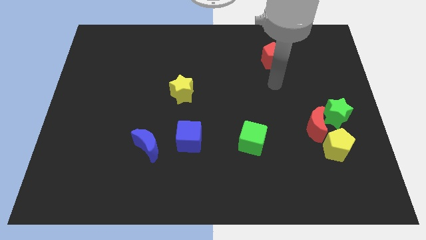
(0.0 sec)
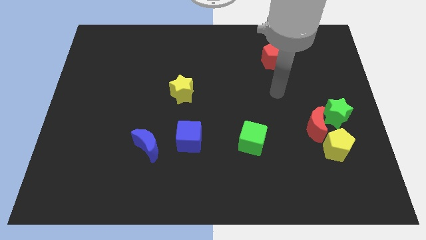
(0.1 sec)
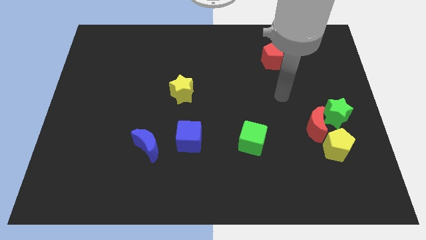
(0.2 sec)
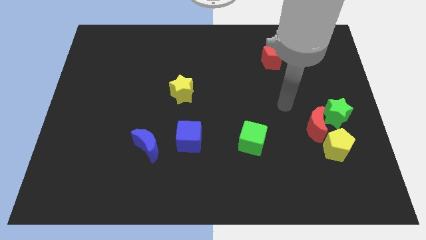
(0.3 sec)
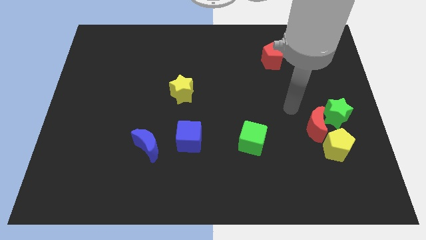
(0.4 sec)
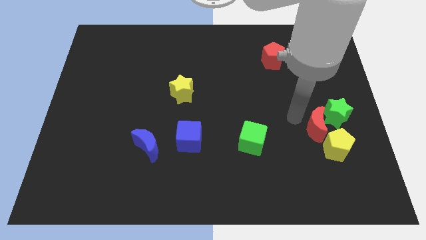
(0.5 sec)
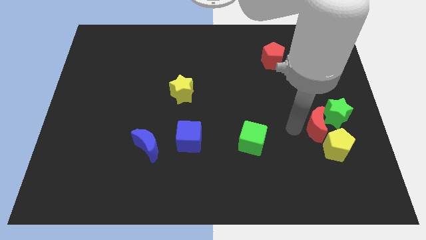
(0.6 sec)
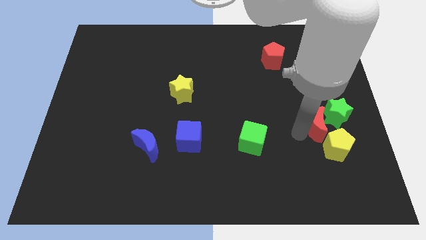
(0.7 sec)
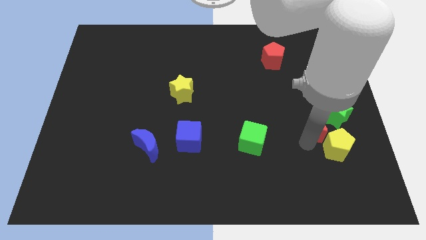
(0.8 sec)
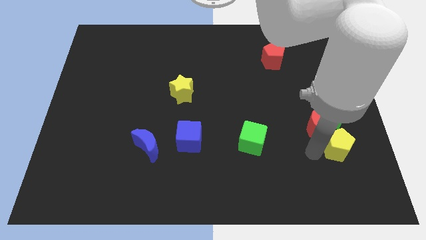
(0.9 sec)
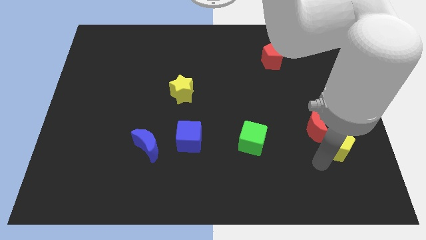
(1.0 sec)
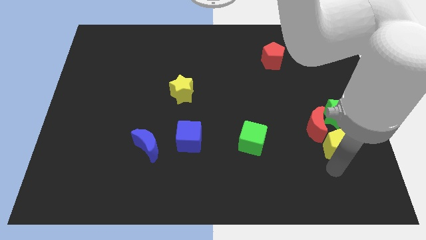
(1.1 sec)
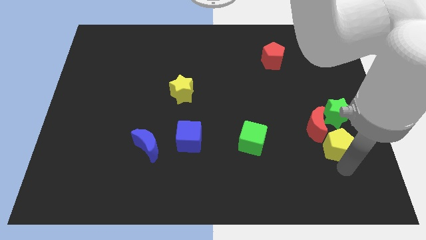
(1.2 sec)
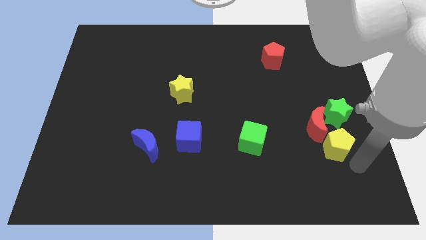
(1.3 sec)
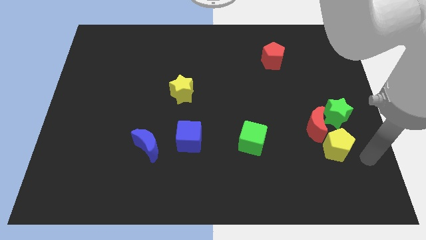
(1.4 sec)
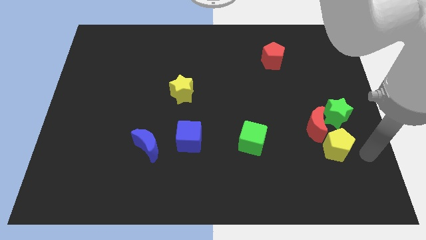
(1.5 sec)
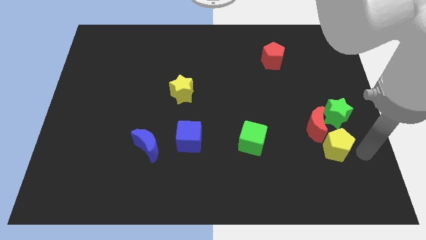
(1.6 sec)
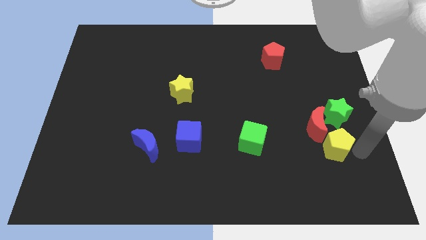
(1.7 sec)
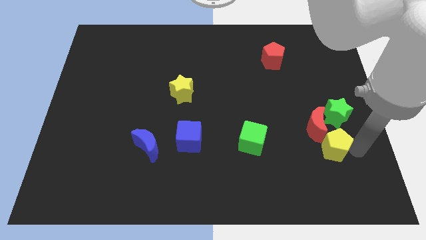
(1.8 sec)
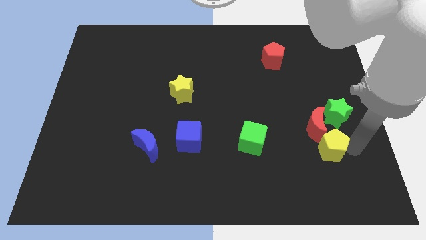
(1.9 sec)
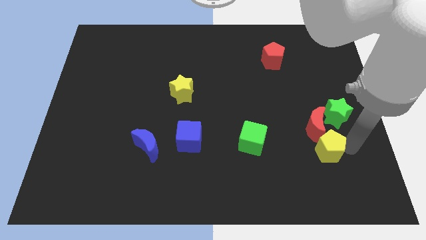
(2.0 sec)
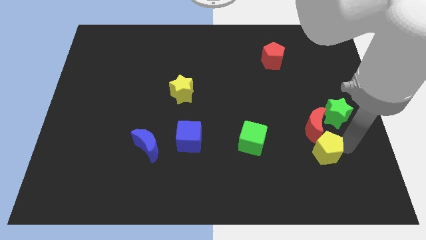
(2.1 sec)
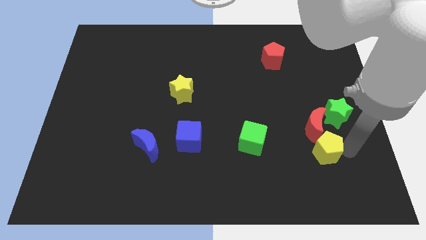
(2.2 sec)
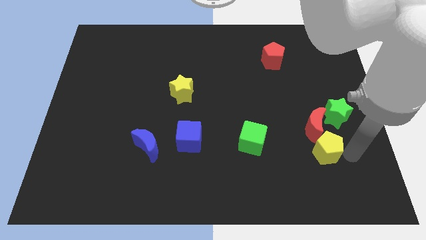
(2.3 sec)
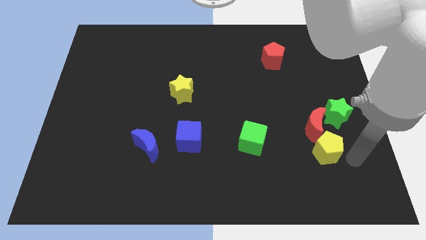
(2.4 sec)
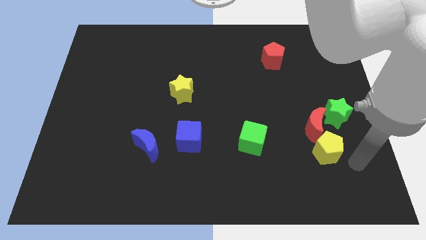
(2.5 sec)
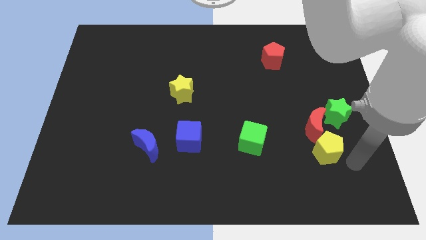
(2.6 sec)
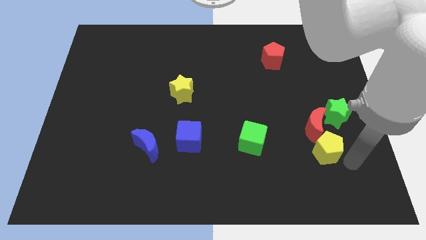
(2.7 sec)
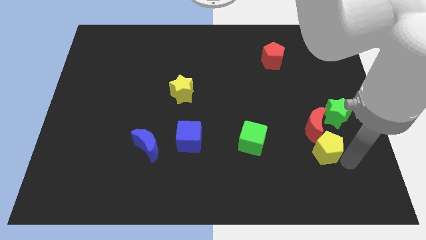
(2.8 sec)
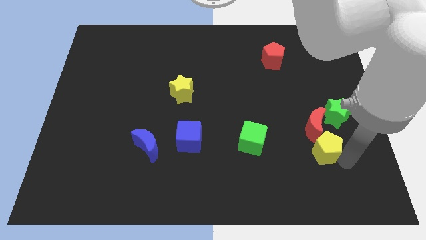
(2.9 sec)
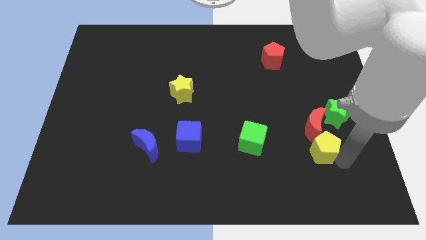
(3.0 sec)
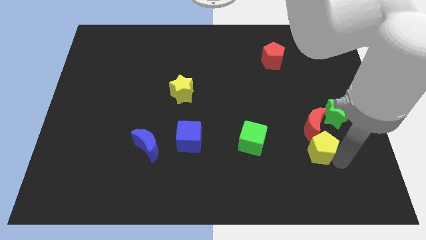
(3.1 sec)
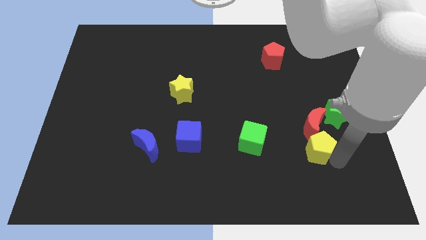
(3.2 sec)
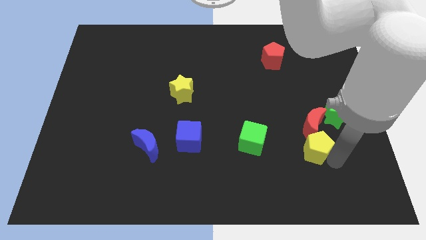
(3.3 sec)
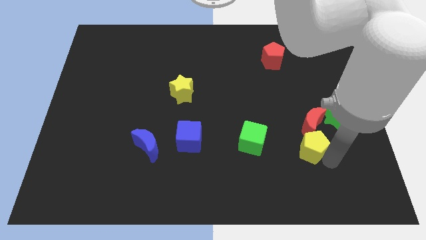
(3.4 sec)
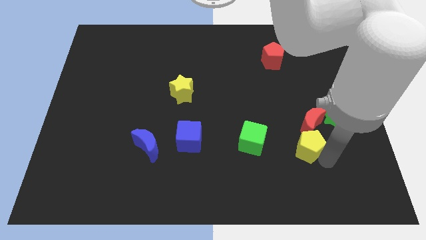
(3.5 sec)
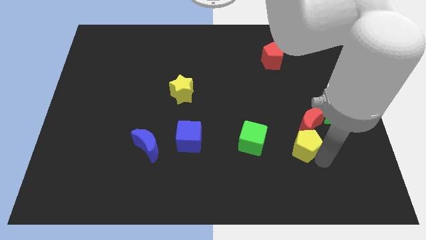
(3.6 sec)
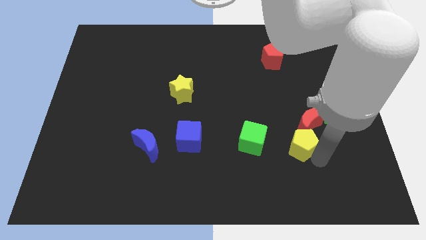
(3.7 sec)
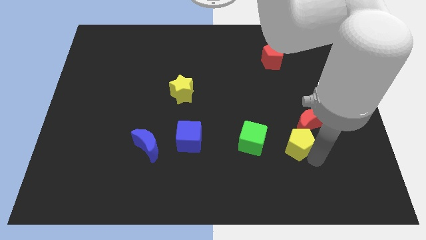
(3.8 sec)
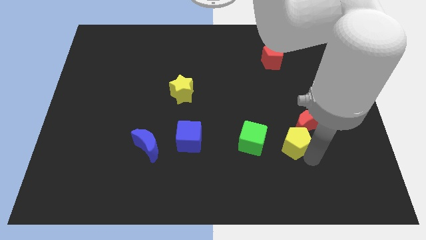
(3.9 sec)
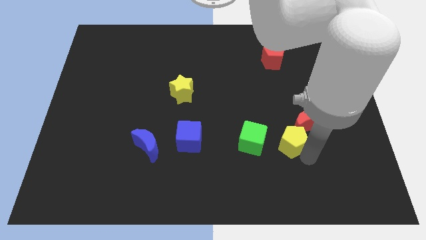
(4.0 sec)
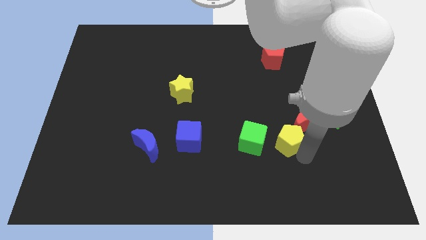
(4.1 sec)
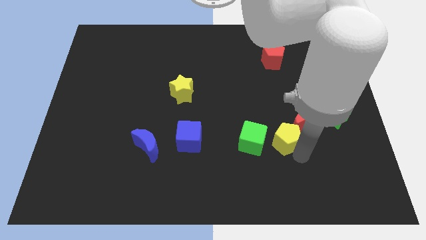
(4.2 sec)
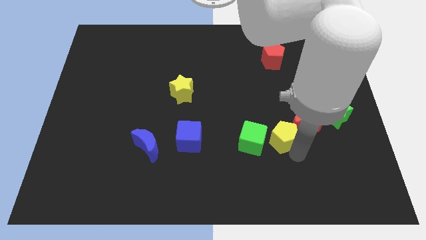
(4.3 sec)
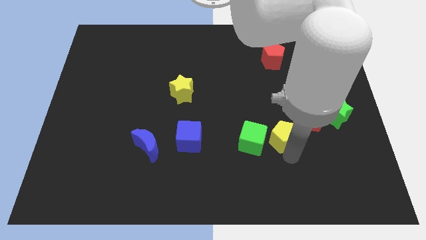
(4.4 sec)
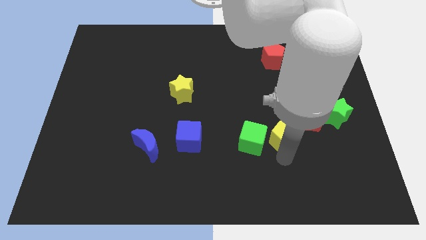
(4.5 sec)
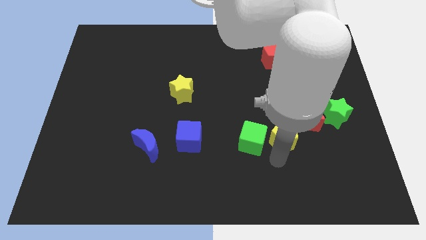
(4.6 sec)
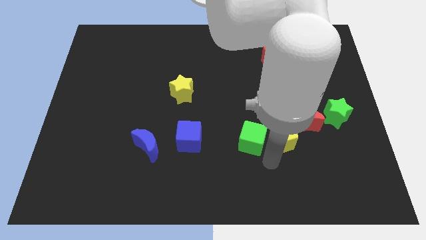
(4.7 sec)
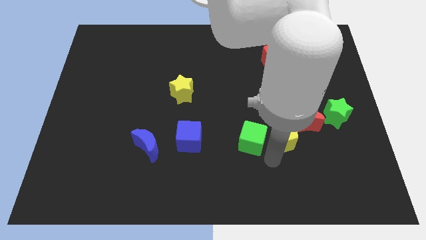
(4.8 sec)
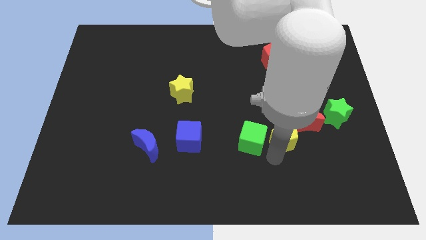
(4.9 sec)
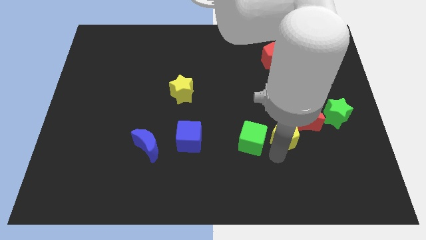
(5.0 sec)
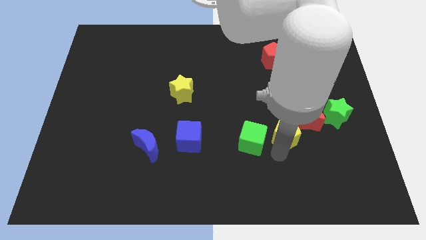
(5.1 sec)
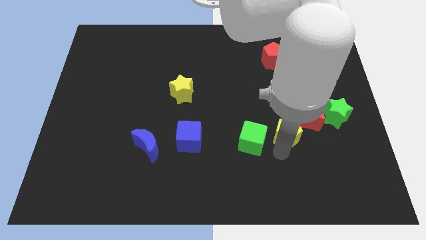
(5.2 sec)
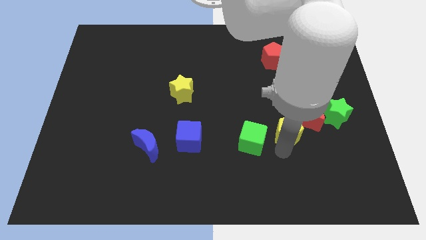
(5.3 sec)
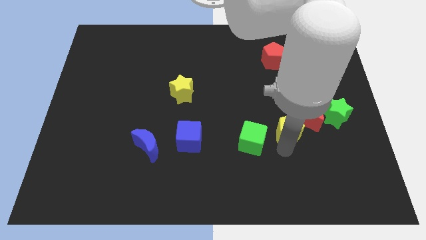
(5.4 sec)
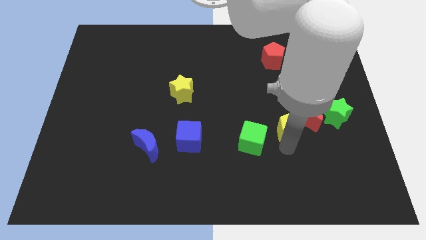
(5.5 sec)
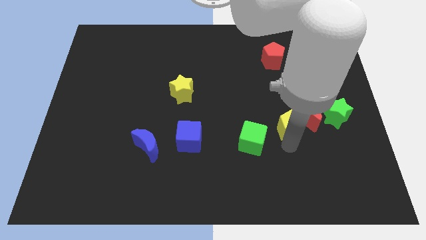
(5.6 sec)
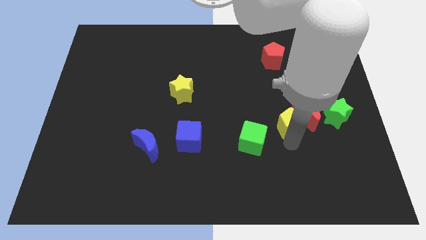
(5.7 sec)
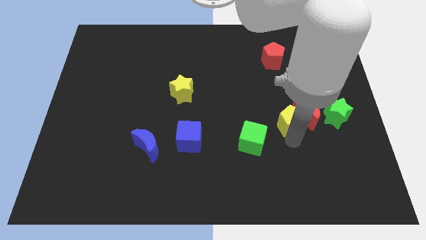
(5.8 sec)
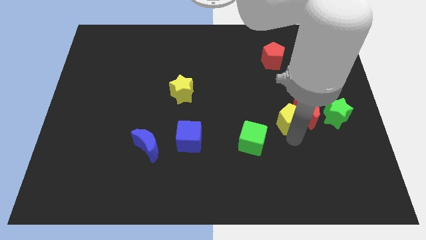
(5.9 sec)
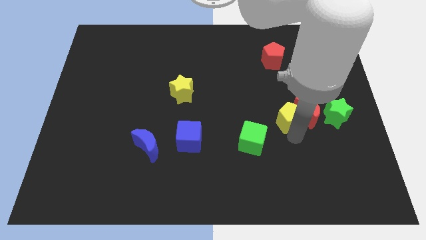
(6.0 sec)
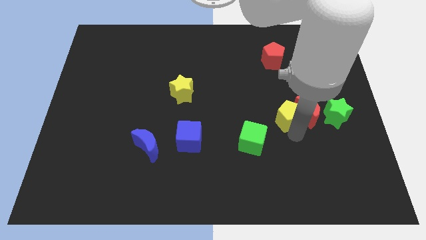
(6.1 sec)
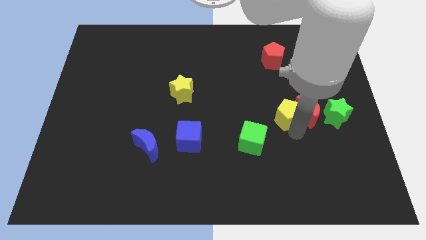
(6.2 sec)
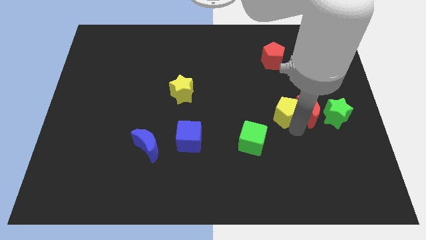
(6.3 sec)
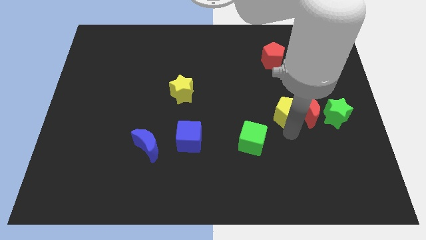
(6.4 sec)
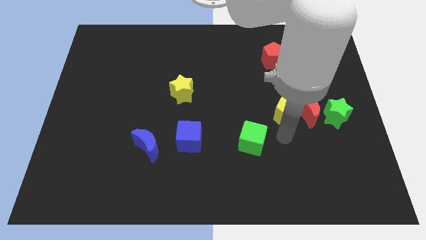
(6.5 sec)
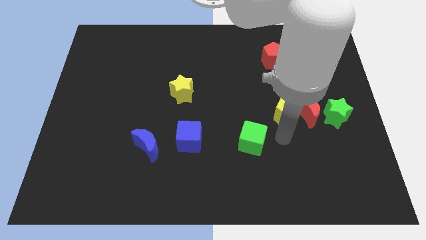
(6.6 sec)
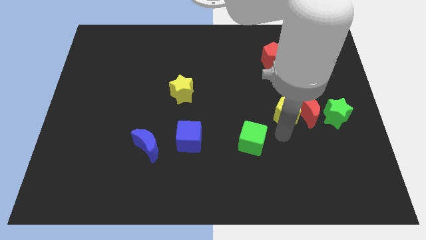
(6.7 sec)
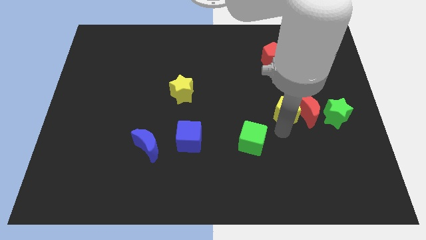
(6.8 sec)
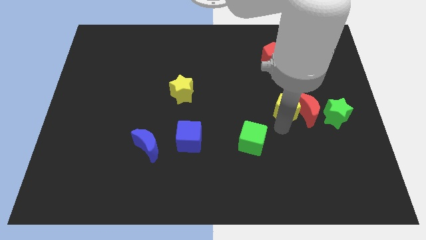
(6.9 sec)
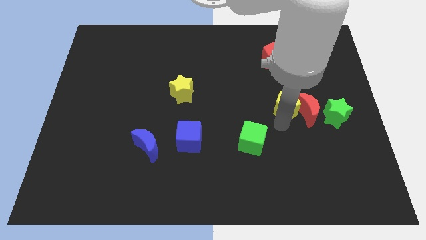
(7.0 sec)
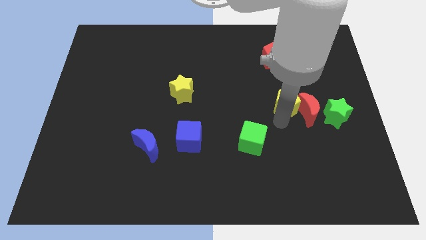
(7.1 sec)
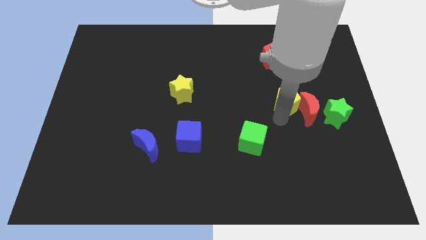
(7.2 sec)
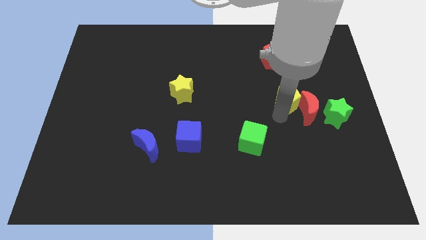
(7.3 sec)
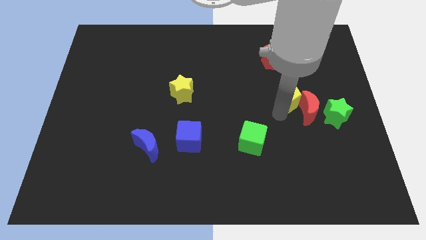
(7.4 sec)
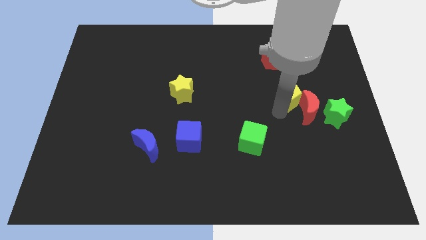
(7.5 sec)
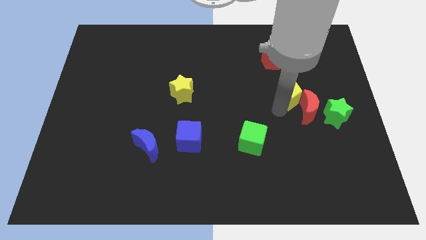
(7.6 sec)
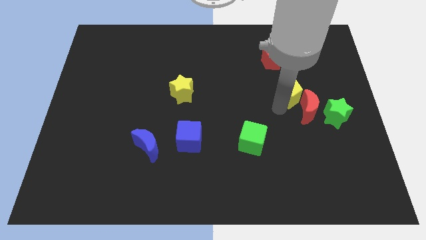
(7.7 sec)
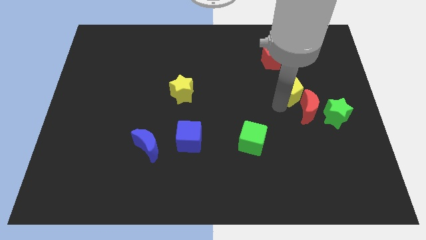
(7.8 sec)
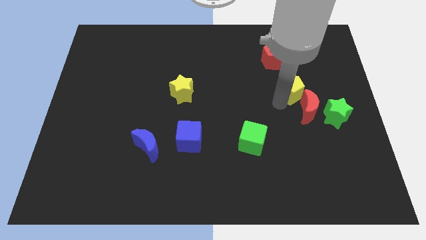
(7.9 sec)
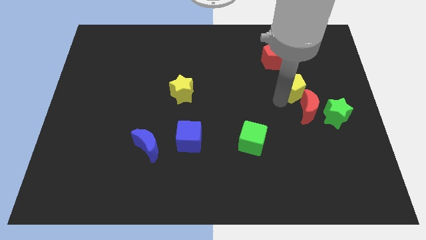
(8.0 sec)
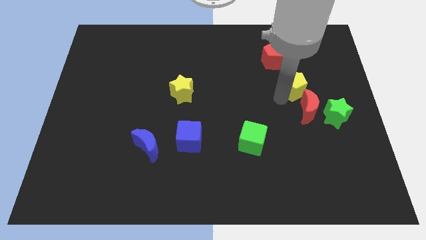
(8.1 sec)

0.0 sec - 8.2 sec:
slide the yellow pentagon diagonally down and to the right of the red pentagon
